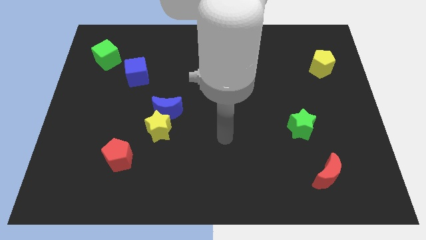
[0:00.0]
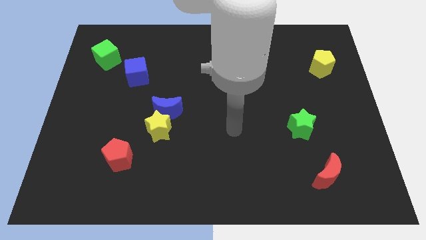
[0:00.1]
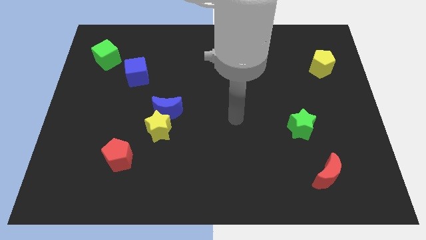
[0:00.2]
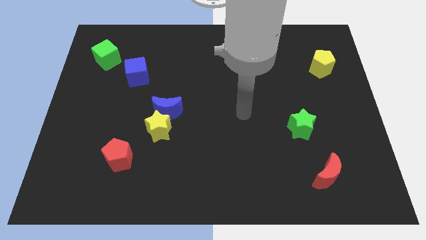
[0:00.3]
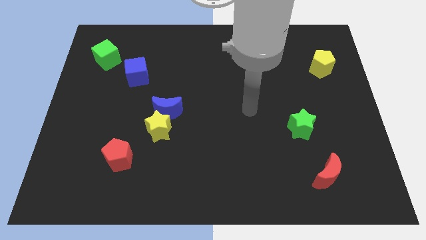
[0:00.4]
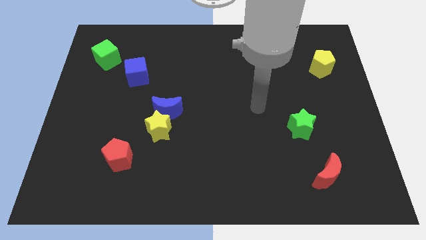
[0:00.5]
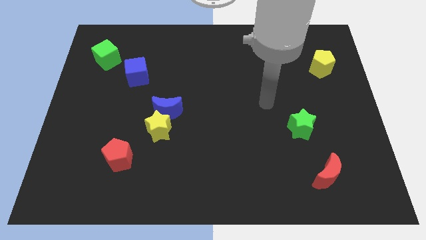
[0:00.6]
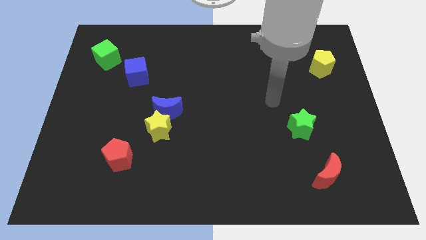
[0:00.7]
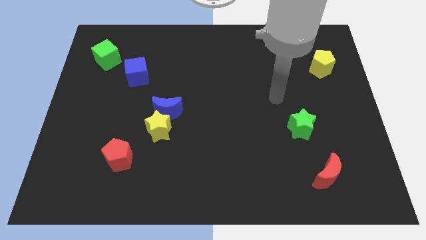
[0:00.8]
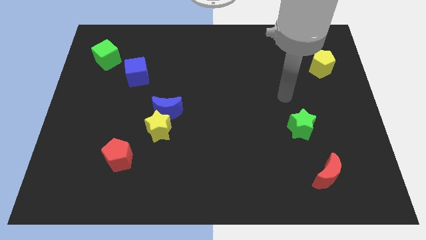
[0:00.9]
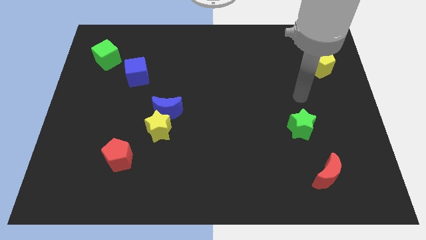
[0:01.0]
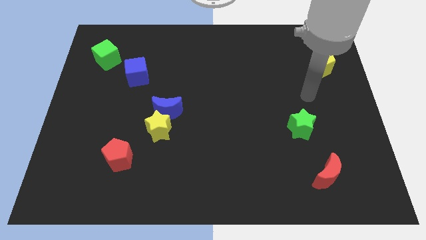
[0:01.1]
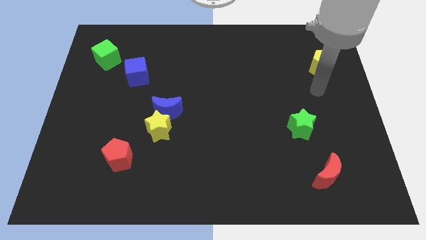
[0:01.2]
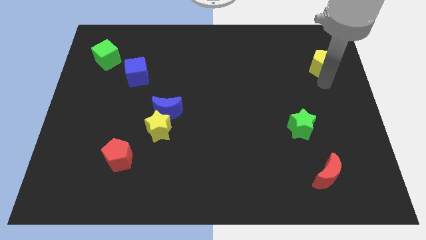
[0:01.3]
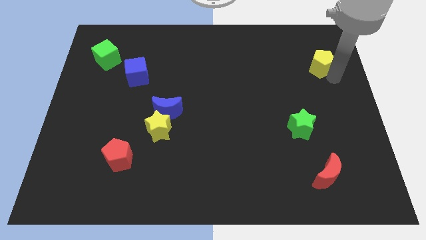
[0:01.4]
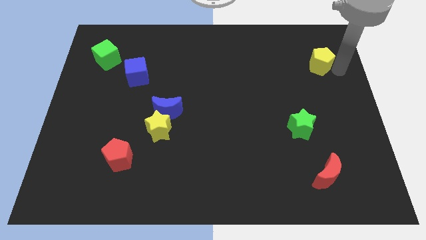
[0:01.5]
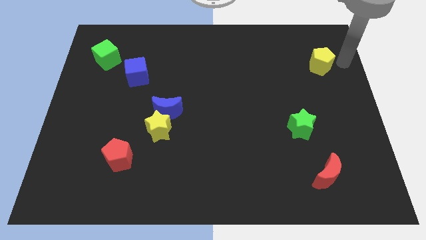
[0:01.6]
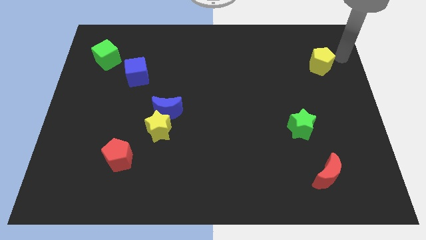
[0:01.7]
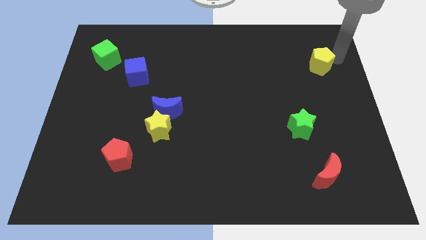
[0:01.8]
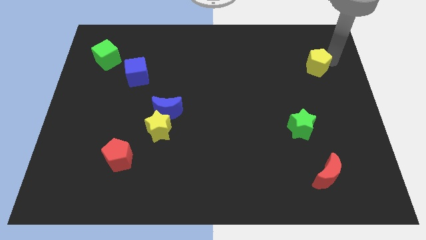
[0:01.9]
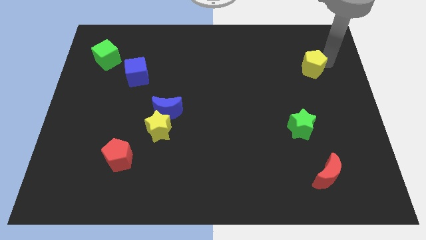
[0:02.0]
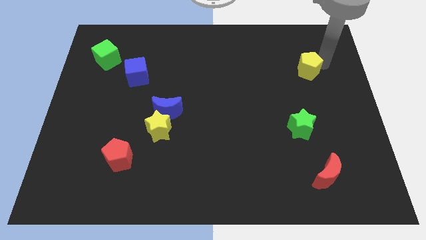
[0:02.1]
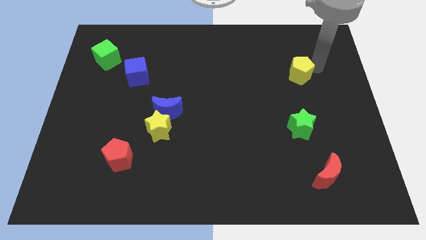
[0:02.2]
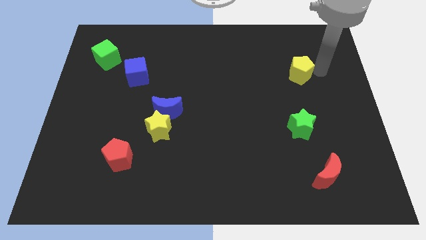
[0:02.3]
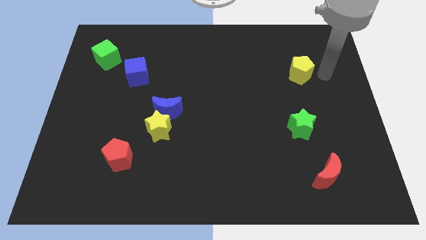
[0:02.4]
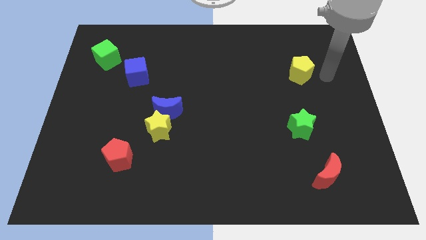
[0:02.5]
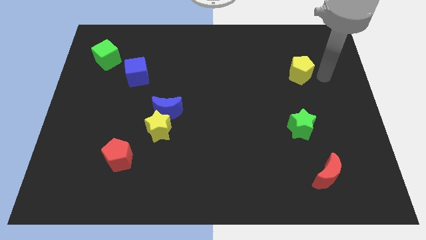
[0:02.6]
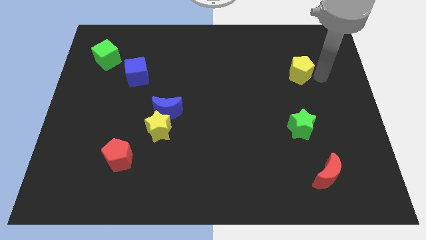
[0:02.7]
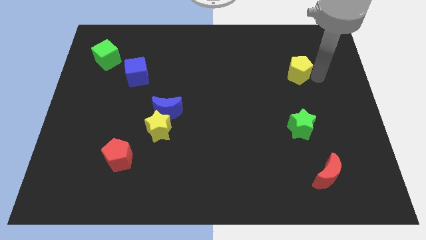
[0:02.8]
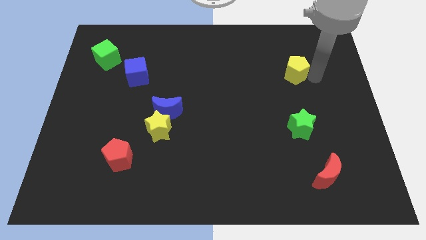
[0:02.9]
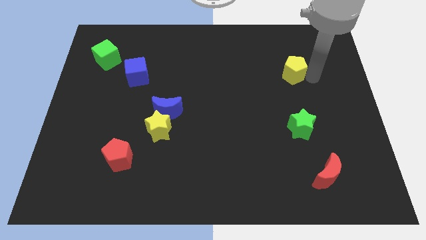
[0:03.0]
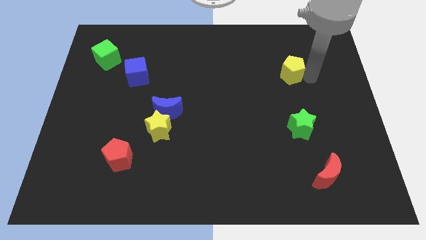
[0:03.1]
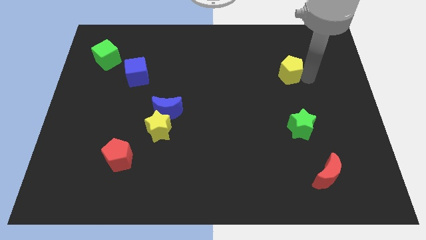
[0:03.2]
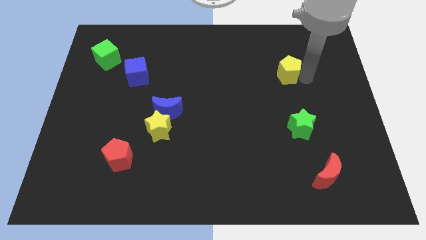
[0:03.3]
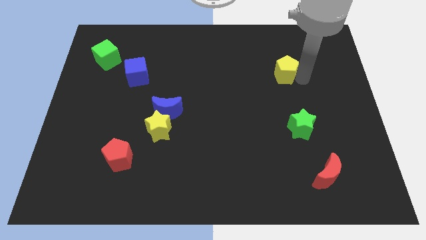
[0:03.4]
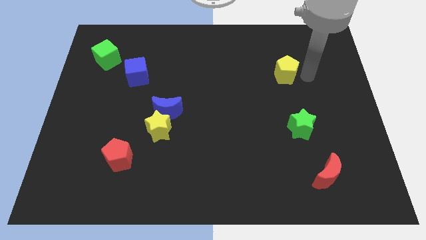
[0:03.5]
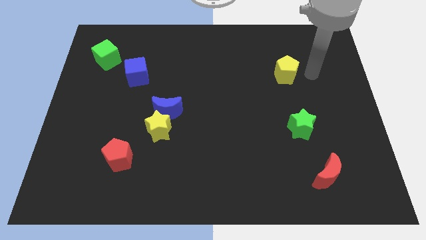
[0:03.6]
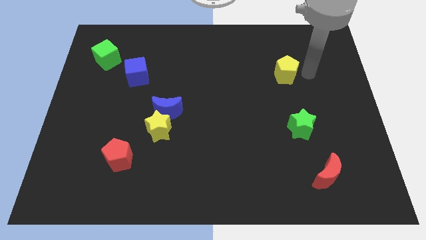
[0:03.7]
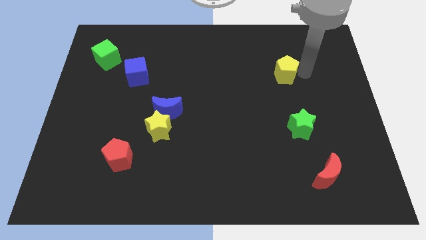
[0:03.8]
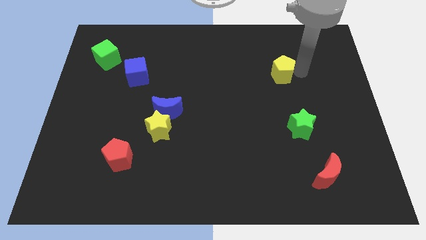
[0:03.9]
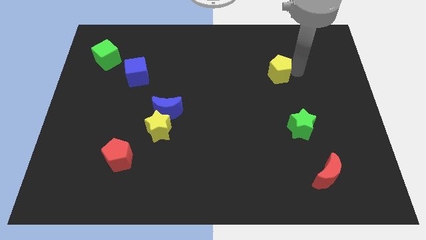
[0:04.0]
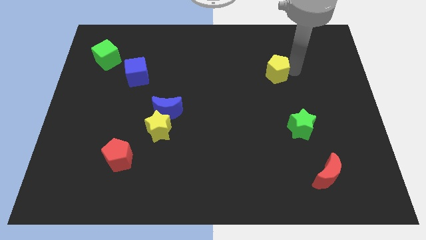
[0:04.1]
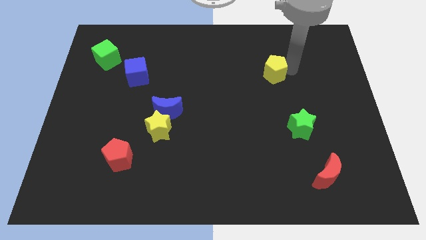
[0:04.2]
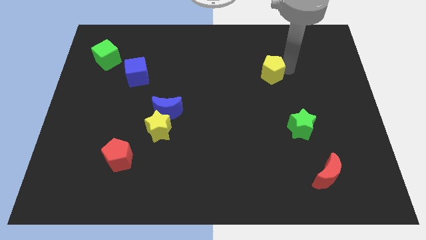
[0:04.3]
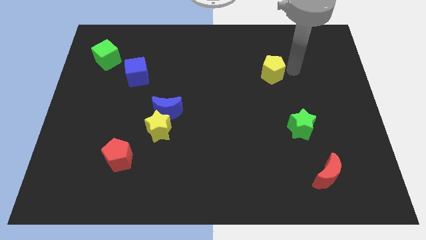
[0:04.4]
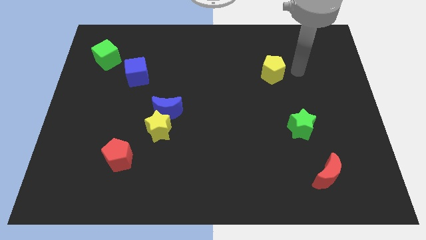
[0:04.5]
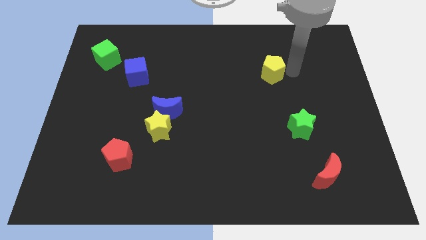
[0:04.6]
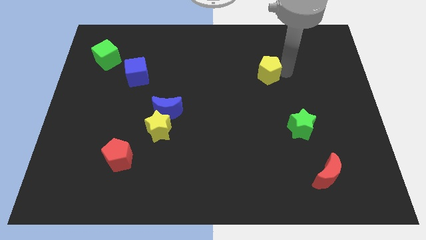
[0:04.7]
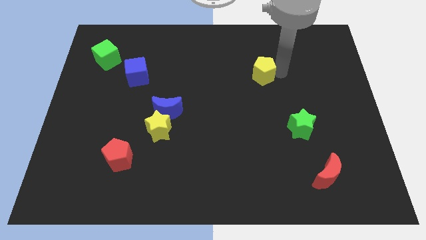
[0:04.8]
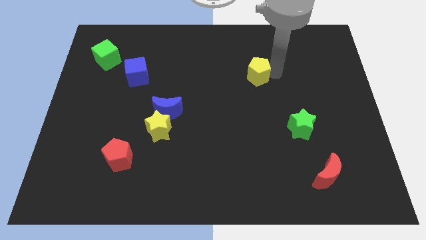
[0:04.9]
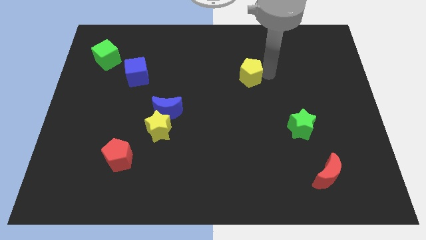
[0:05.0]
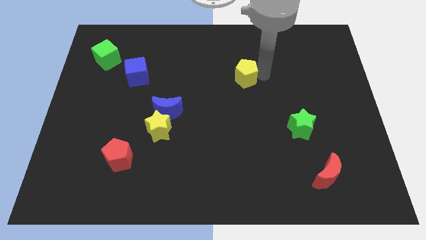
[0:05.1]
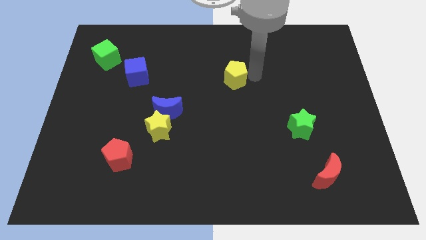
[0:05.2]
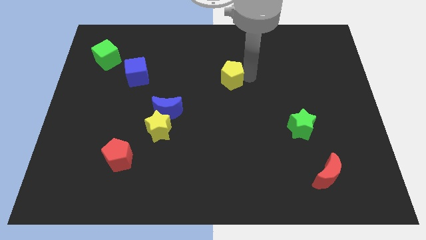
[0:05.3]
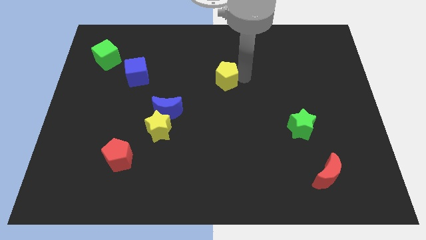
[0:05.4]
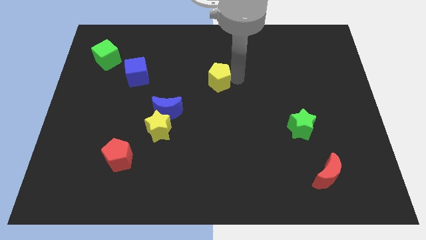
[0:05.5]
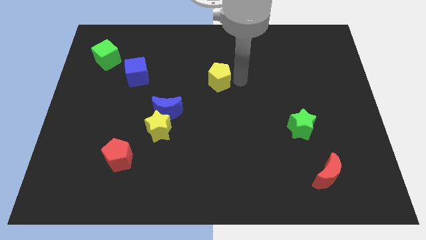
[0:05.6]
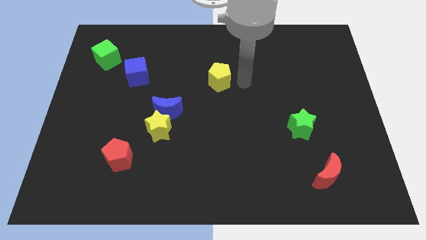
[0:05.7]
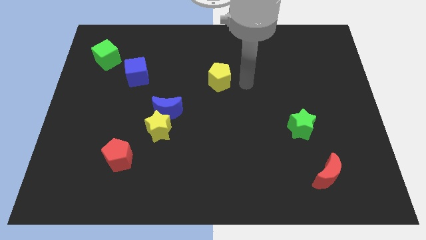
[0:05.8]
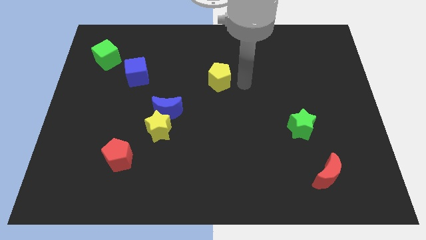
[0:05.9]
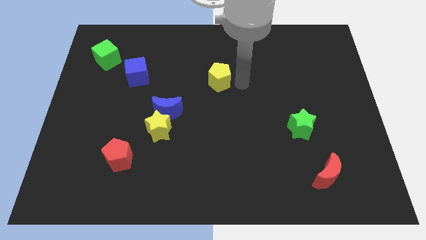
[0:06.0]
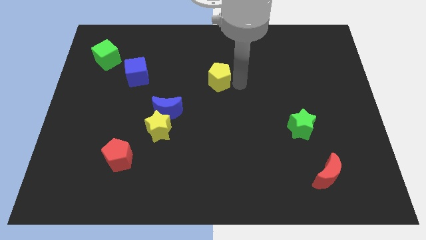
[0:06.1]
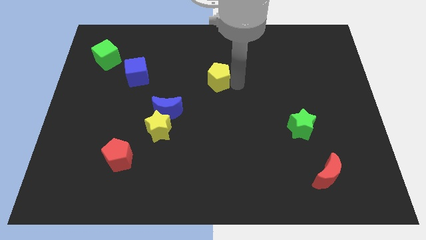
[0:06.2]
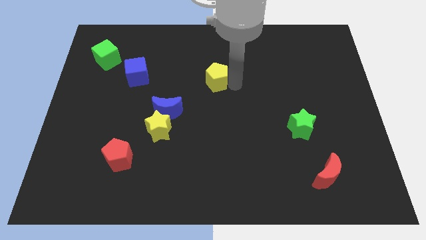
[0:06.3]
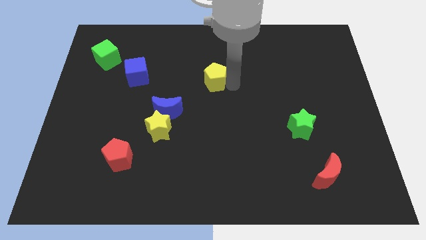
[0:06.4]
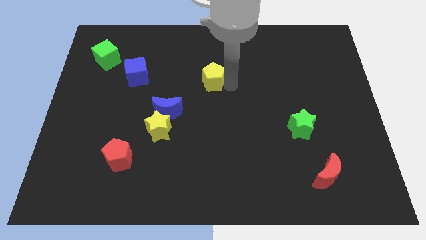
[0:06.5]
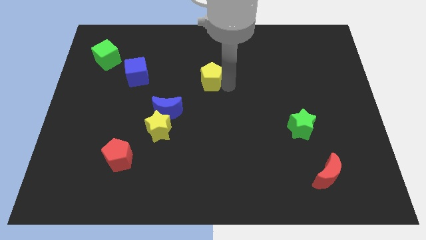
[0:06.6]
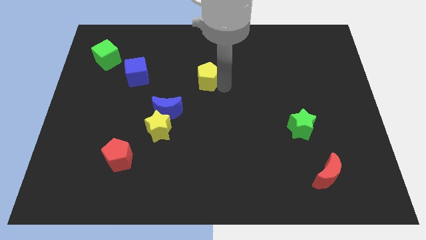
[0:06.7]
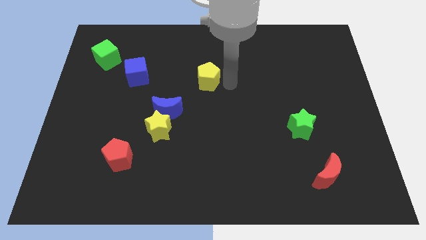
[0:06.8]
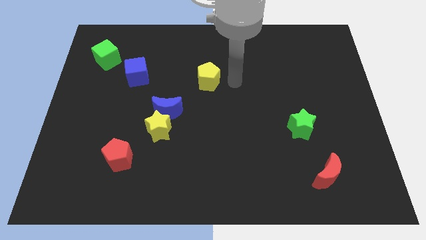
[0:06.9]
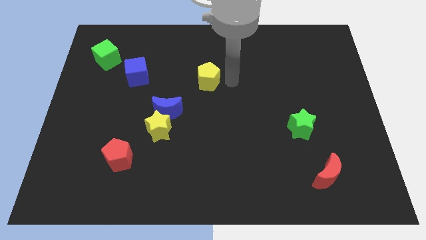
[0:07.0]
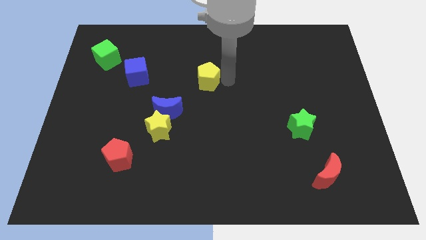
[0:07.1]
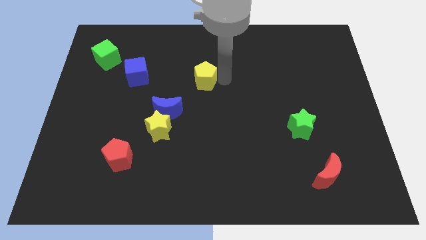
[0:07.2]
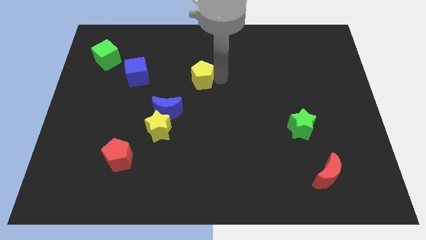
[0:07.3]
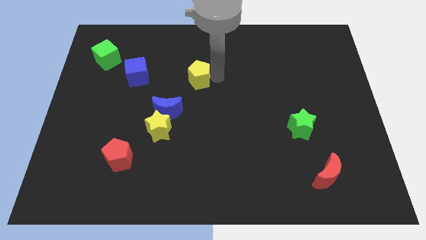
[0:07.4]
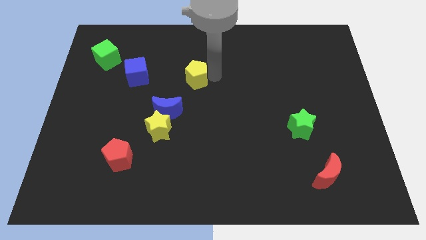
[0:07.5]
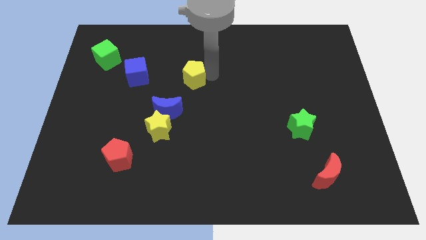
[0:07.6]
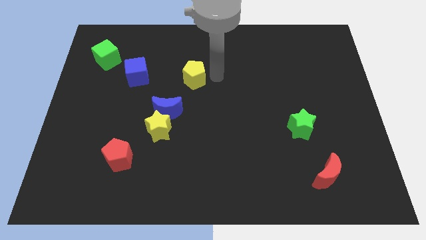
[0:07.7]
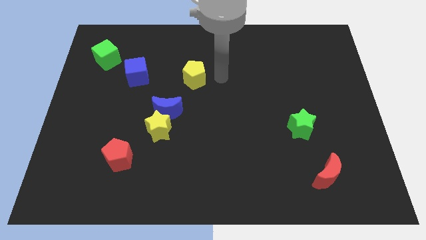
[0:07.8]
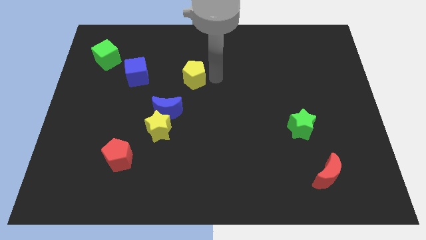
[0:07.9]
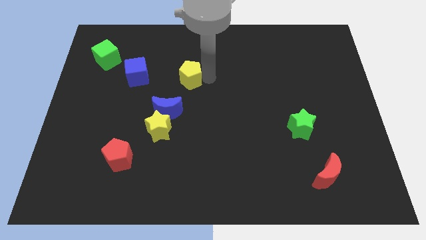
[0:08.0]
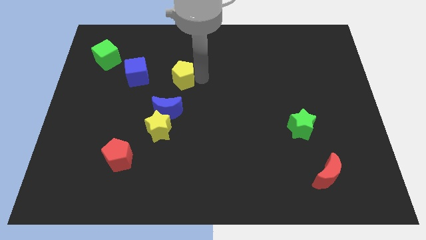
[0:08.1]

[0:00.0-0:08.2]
slide the yellow pentagon to the top of the blue moon

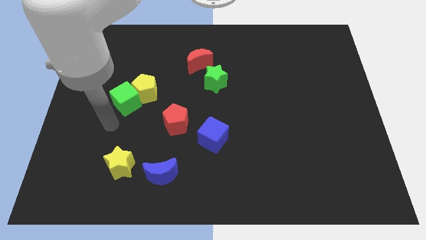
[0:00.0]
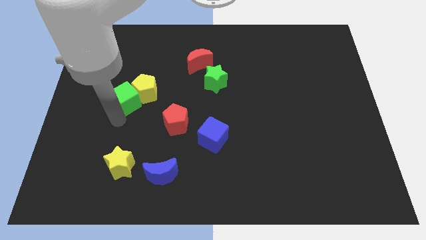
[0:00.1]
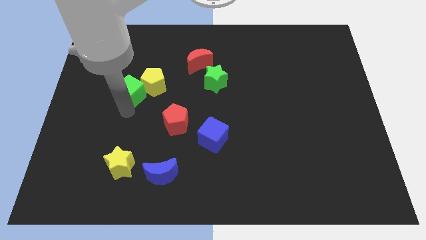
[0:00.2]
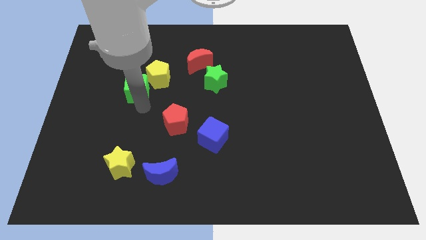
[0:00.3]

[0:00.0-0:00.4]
put the yellow pentagon to the left of the red moon
